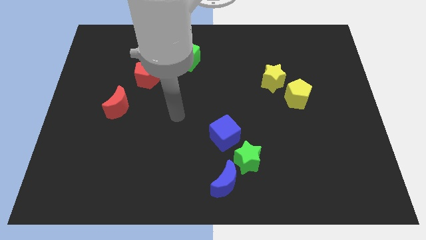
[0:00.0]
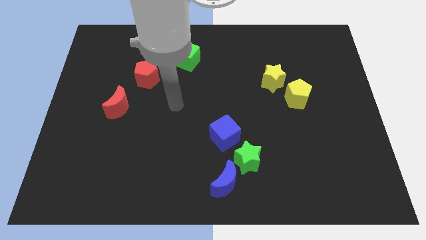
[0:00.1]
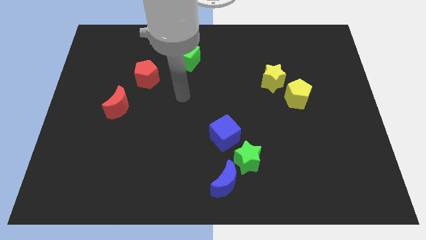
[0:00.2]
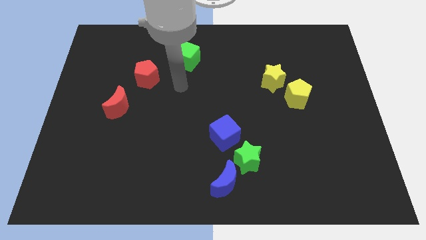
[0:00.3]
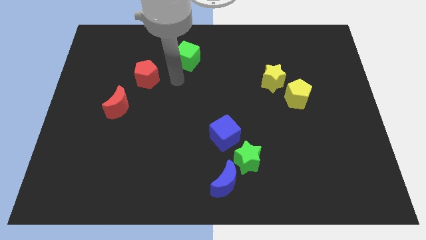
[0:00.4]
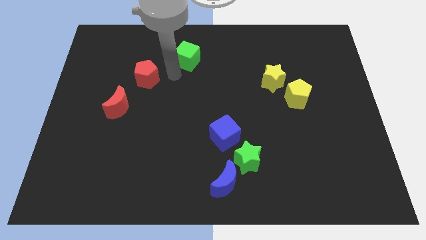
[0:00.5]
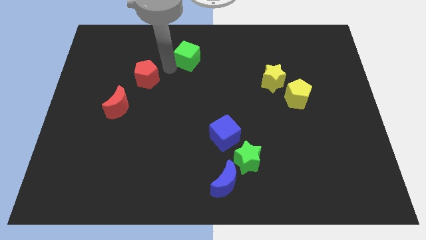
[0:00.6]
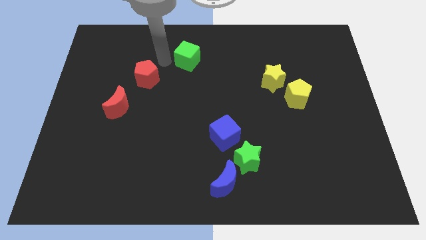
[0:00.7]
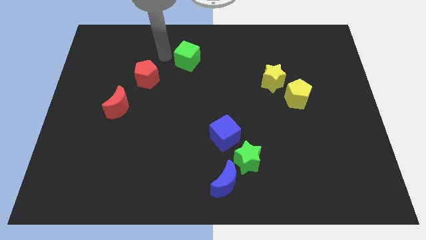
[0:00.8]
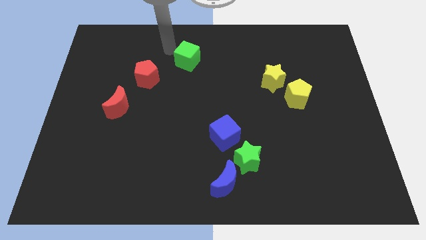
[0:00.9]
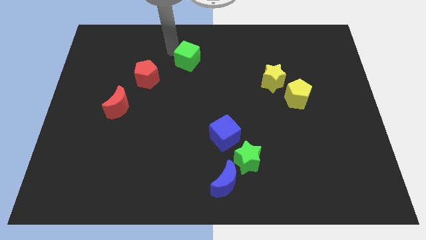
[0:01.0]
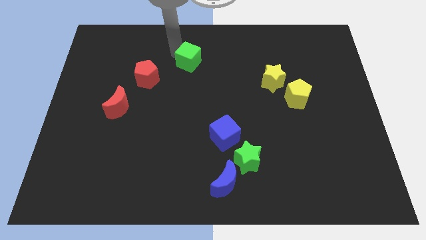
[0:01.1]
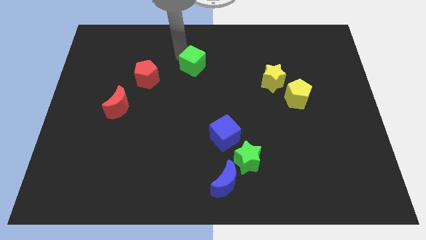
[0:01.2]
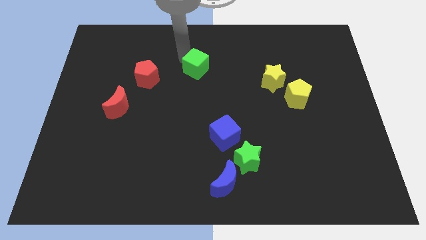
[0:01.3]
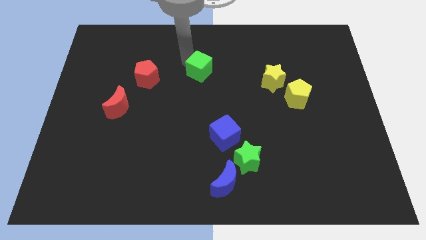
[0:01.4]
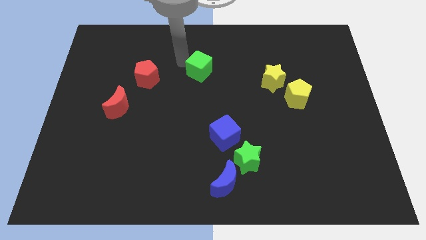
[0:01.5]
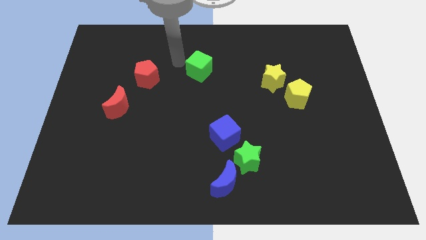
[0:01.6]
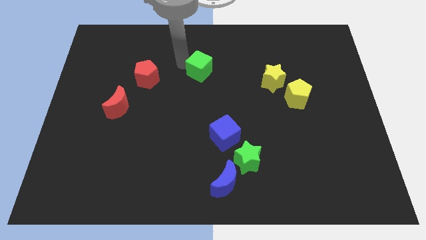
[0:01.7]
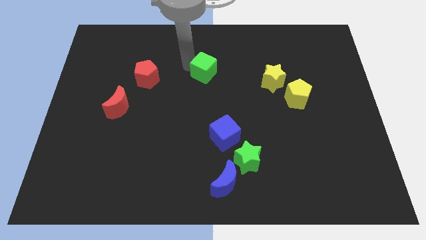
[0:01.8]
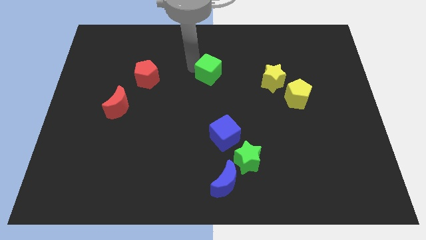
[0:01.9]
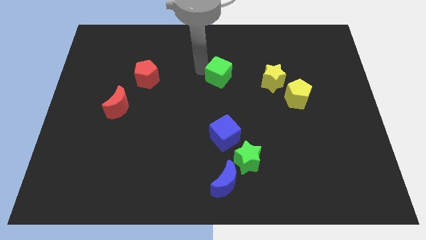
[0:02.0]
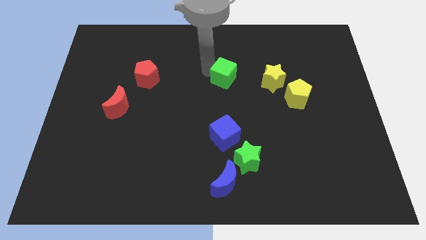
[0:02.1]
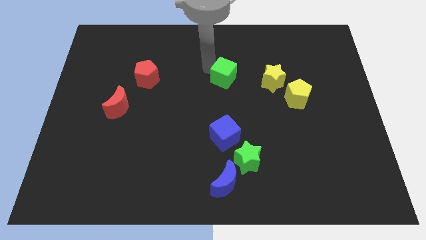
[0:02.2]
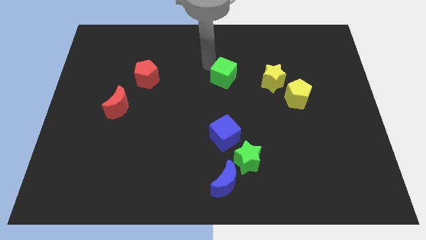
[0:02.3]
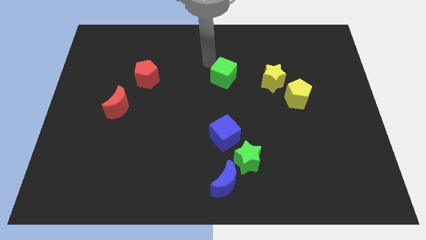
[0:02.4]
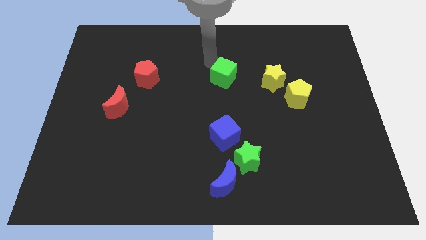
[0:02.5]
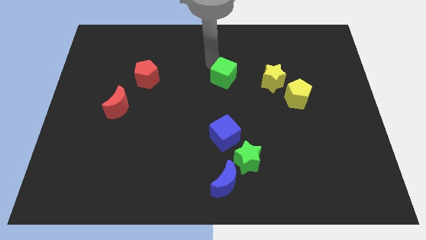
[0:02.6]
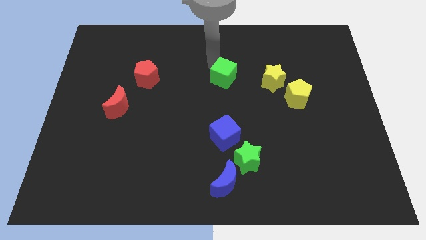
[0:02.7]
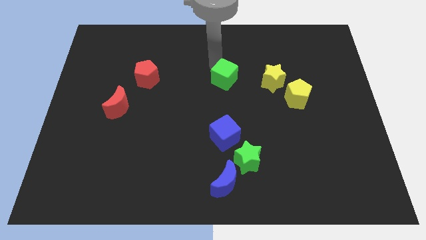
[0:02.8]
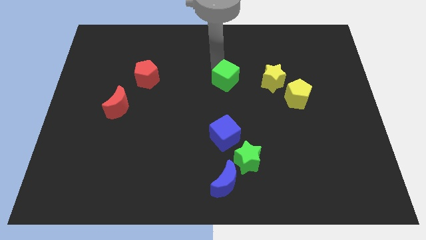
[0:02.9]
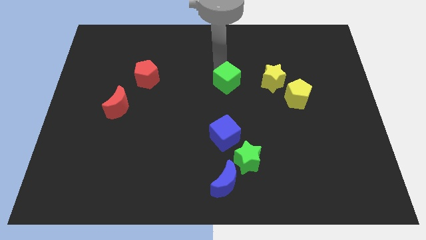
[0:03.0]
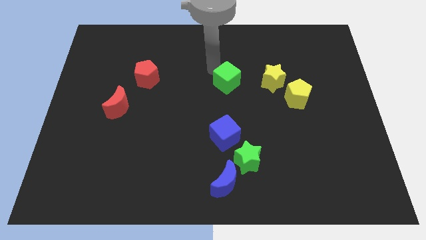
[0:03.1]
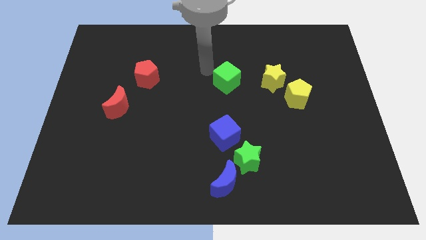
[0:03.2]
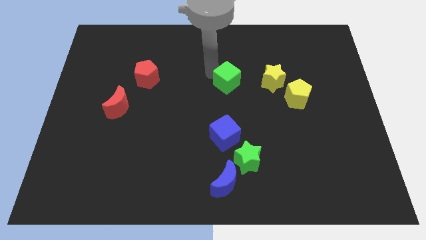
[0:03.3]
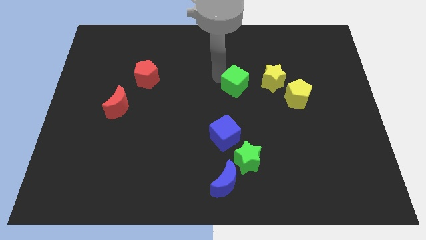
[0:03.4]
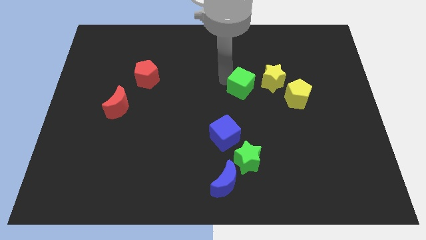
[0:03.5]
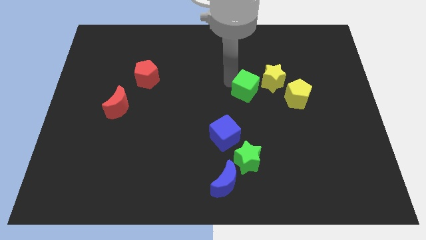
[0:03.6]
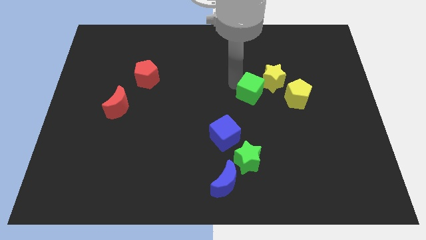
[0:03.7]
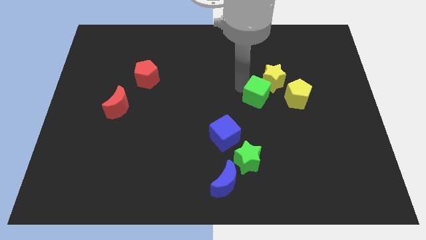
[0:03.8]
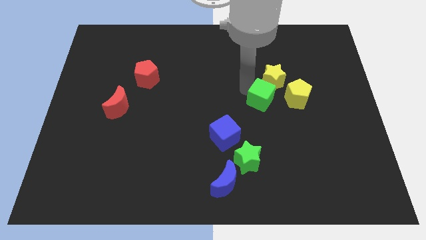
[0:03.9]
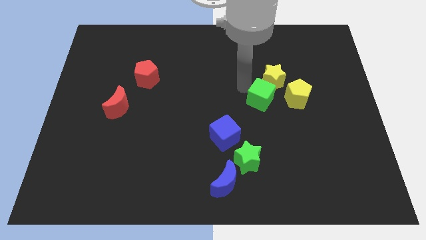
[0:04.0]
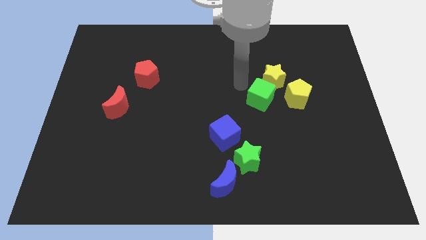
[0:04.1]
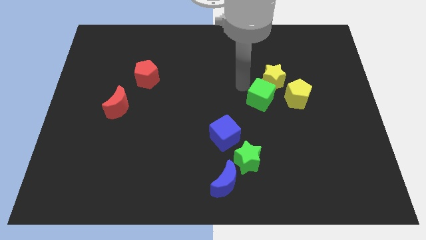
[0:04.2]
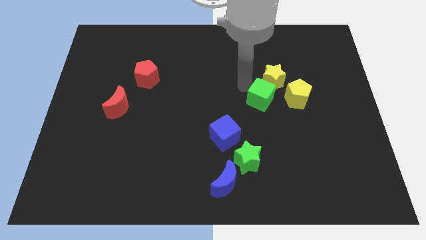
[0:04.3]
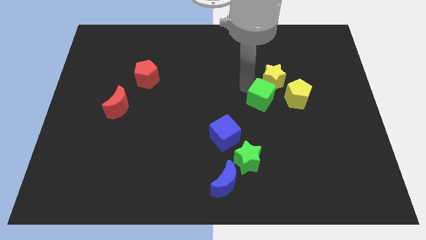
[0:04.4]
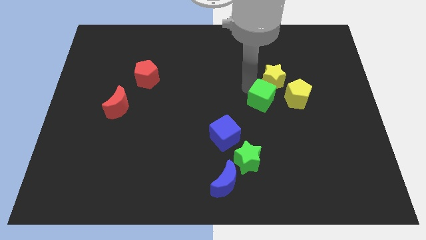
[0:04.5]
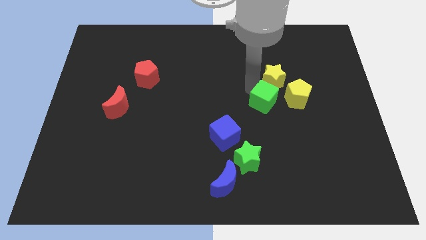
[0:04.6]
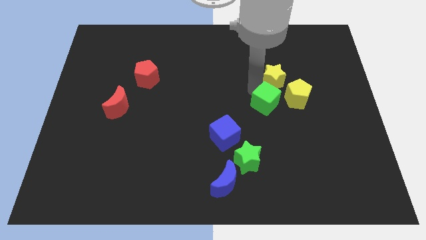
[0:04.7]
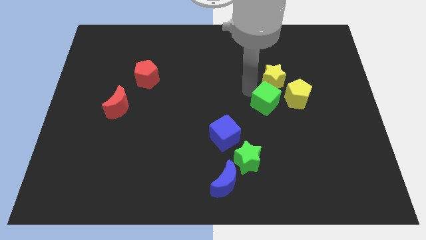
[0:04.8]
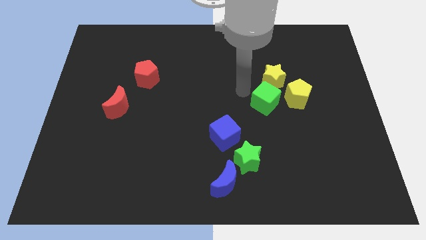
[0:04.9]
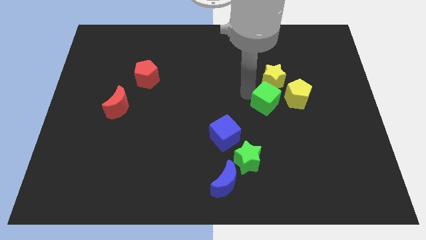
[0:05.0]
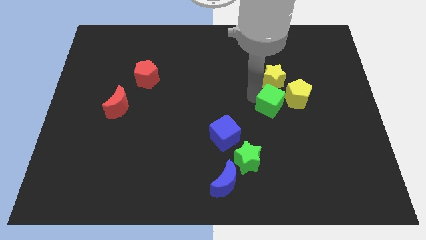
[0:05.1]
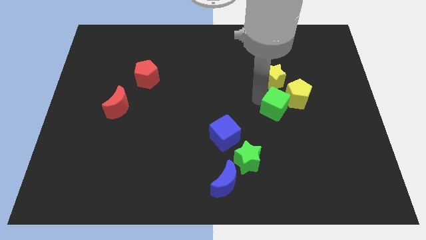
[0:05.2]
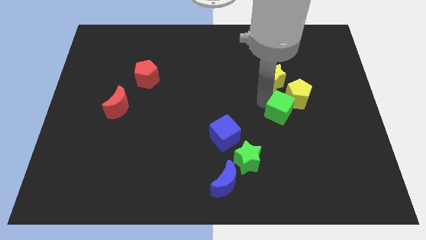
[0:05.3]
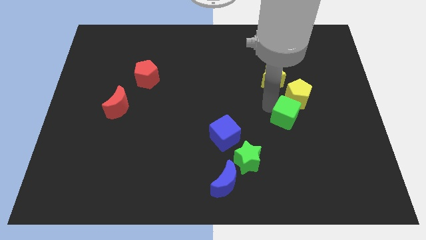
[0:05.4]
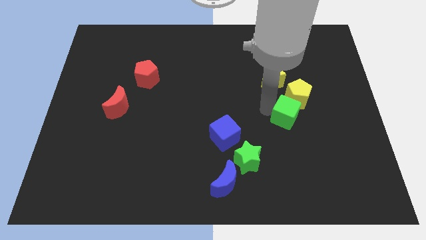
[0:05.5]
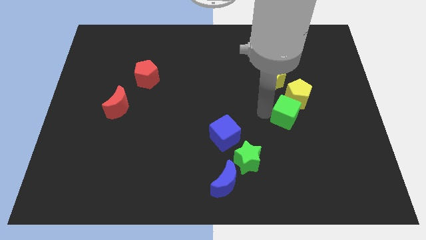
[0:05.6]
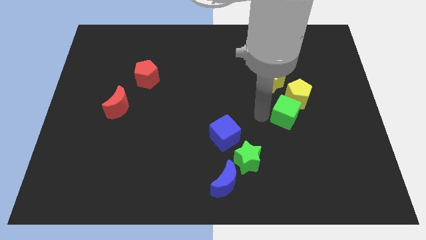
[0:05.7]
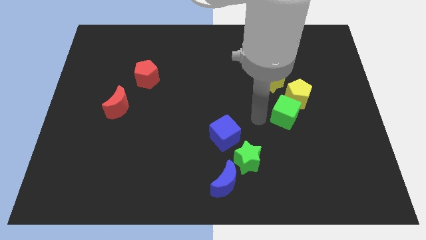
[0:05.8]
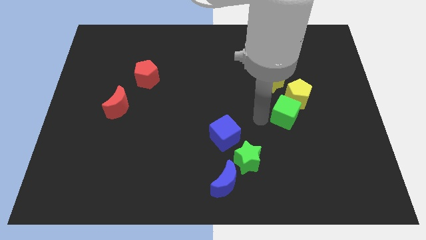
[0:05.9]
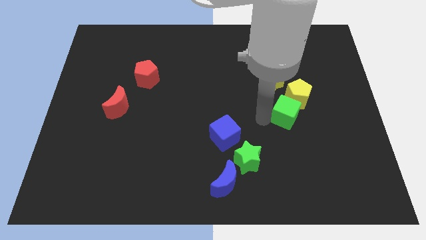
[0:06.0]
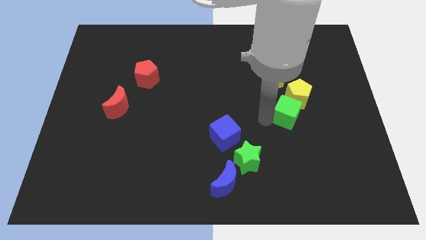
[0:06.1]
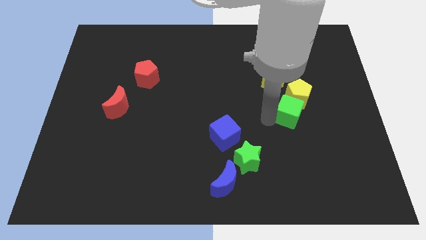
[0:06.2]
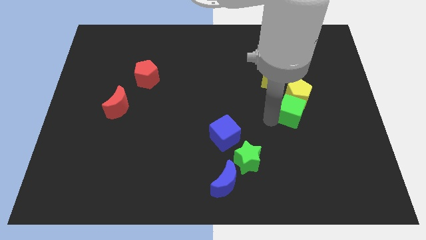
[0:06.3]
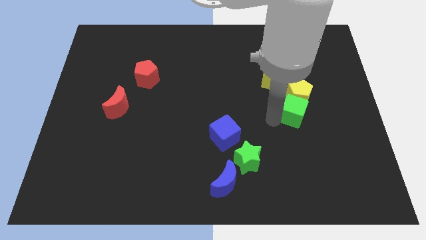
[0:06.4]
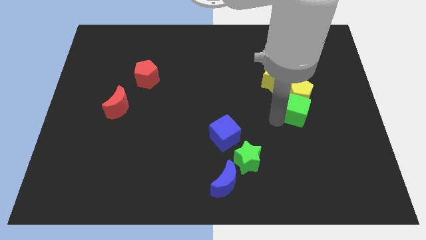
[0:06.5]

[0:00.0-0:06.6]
move the green cube to the bottom right side of the yellow pentagon
